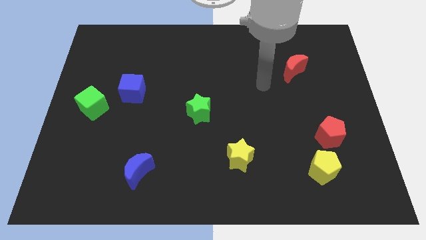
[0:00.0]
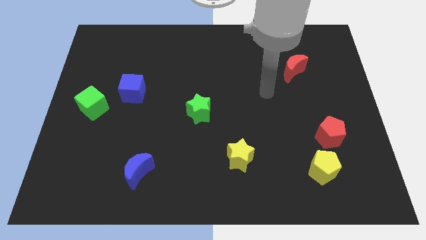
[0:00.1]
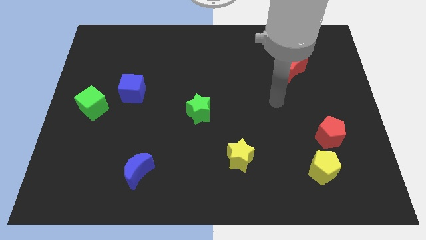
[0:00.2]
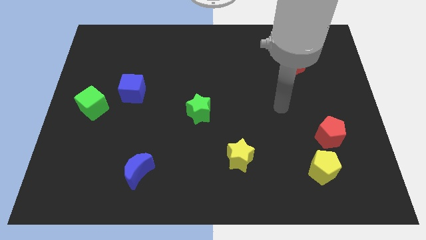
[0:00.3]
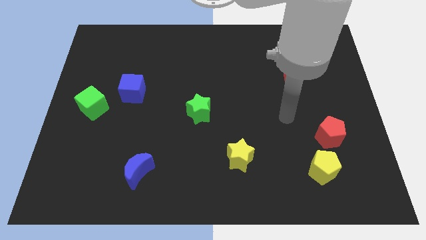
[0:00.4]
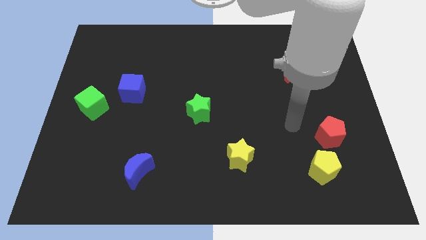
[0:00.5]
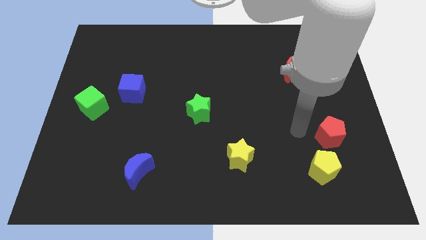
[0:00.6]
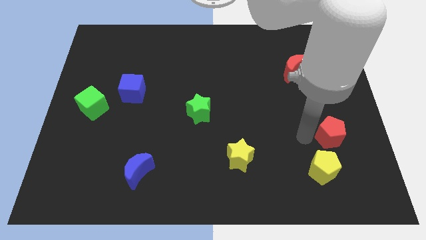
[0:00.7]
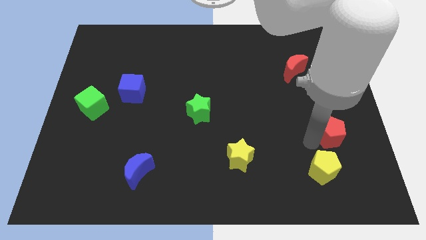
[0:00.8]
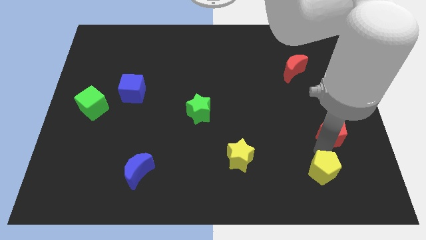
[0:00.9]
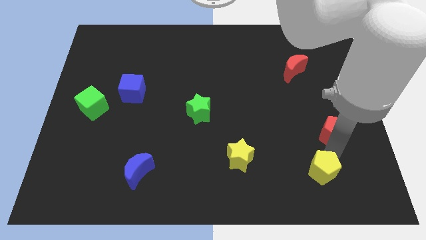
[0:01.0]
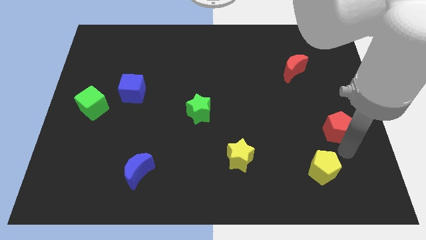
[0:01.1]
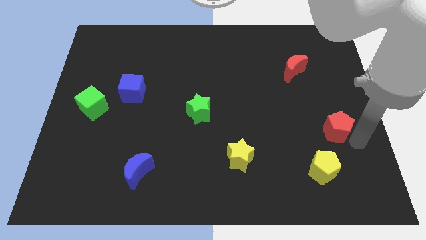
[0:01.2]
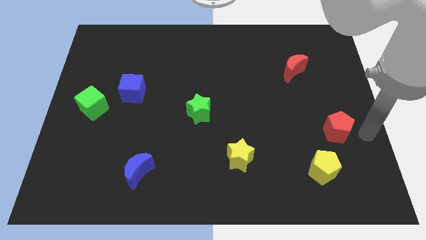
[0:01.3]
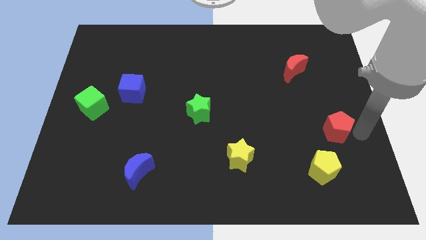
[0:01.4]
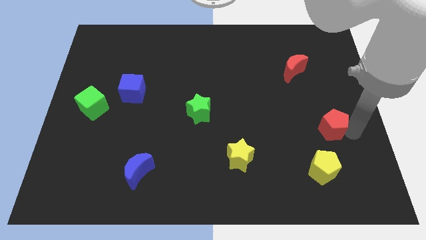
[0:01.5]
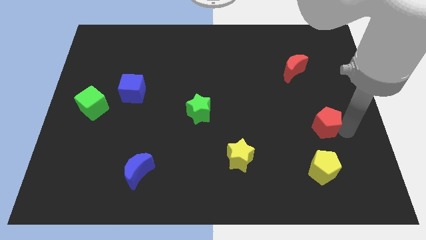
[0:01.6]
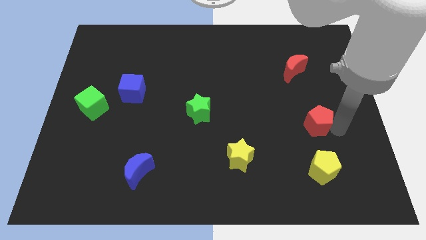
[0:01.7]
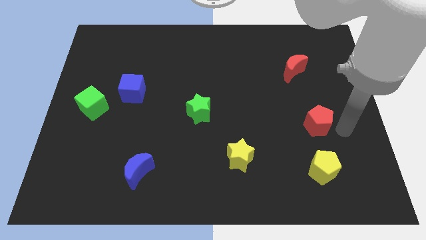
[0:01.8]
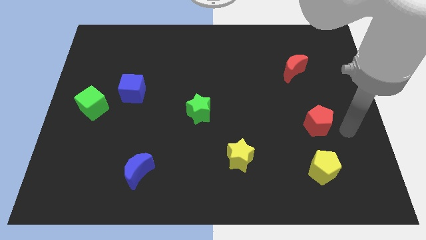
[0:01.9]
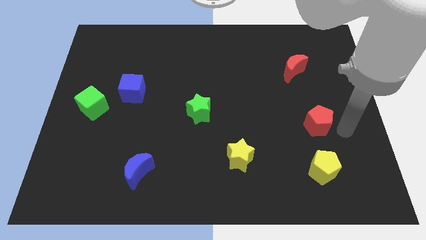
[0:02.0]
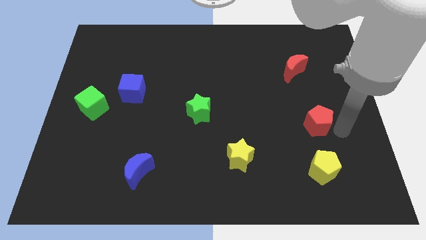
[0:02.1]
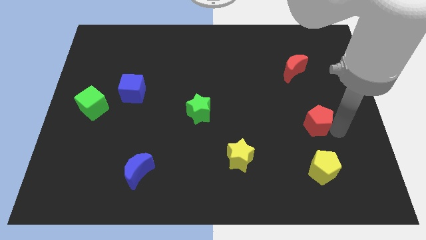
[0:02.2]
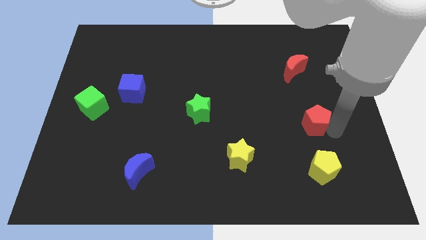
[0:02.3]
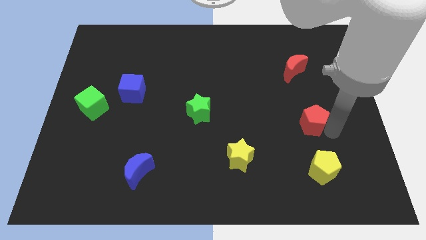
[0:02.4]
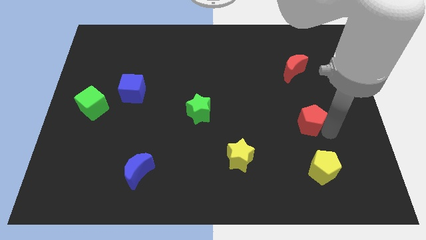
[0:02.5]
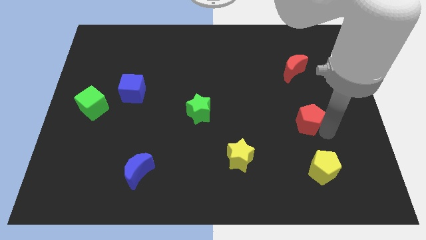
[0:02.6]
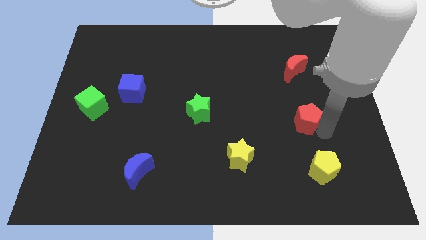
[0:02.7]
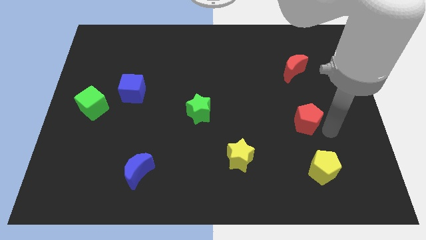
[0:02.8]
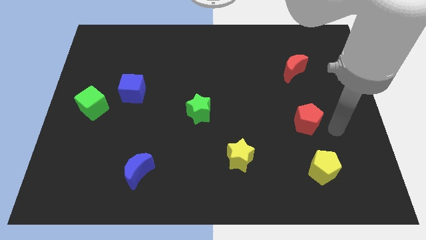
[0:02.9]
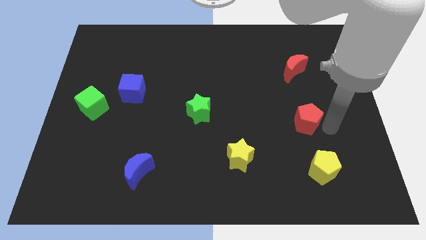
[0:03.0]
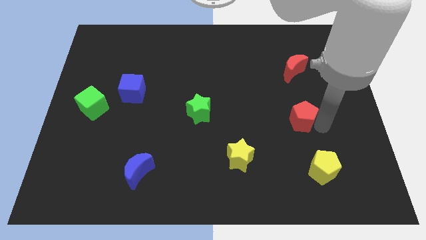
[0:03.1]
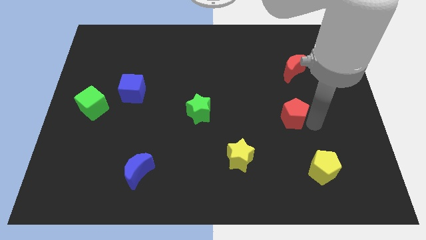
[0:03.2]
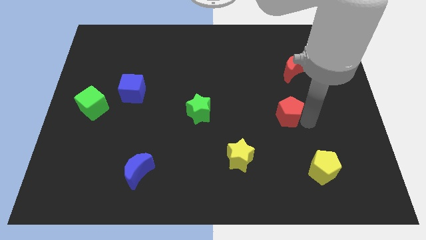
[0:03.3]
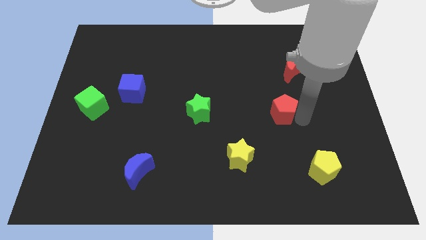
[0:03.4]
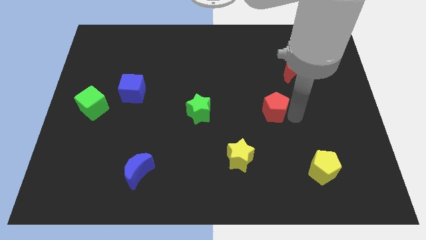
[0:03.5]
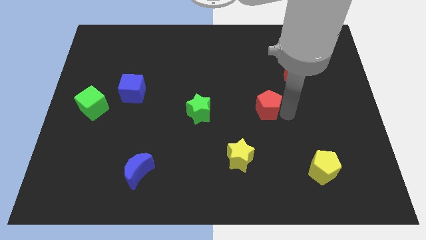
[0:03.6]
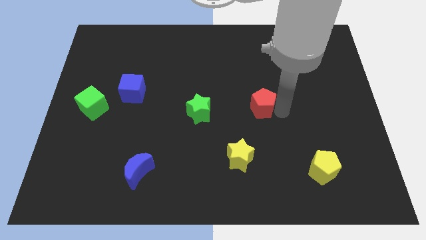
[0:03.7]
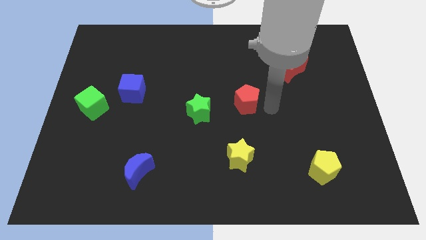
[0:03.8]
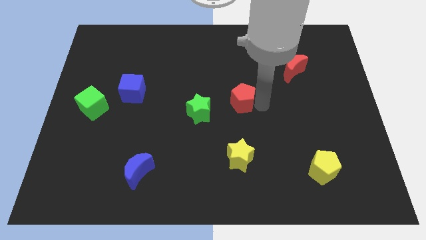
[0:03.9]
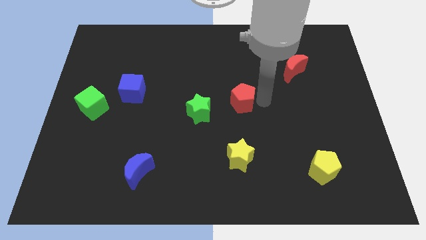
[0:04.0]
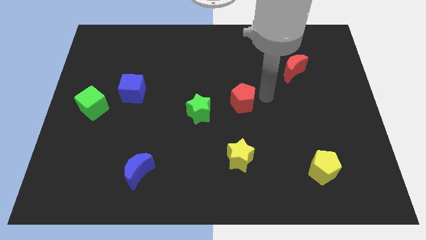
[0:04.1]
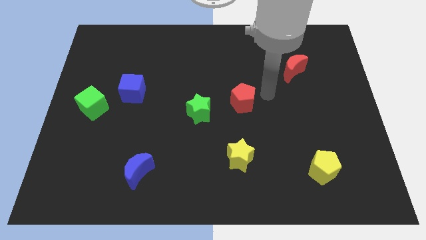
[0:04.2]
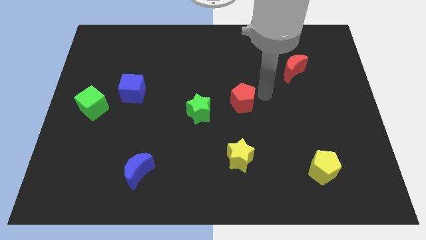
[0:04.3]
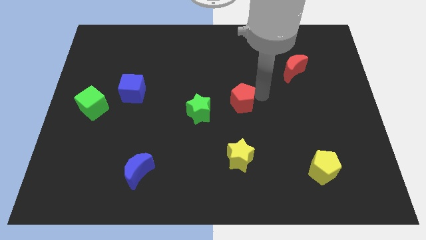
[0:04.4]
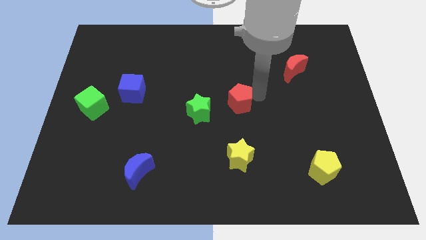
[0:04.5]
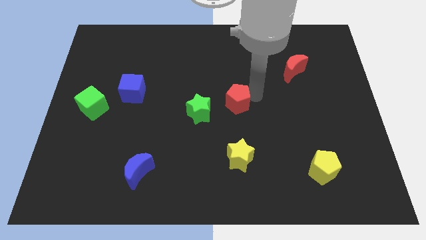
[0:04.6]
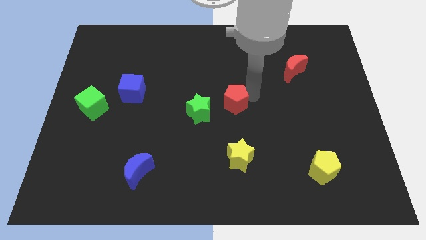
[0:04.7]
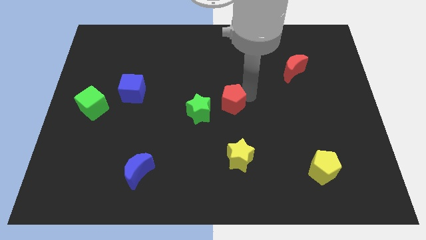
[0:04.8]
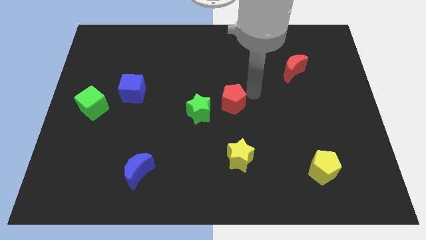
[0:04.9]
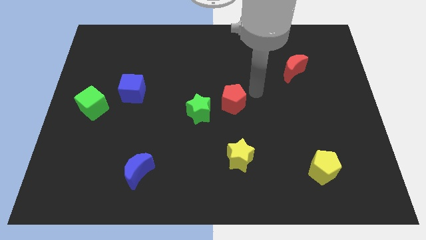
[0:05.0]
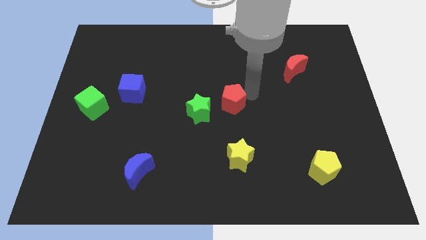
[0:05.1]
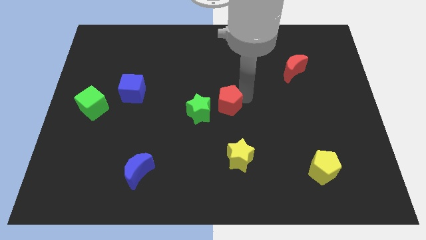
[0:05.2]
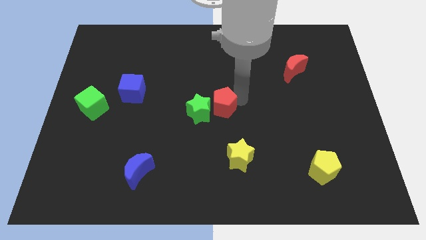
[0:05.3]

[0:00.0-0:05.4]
move the red pentagon to the green star
